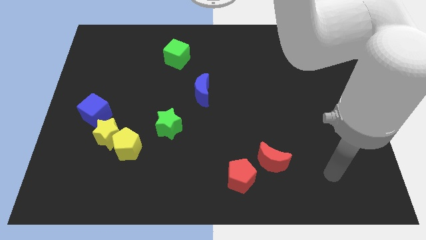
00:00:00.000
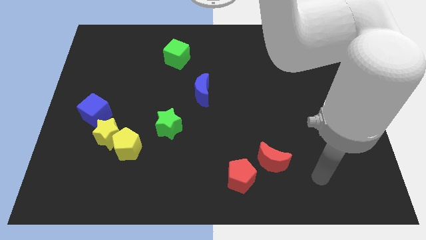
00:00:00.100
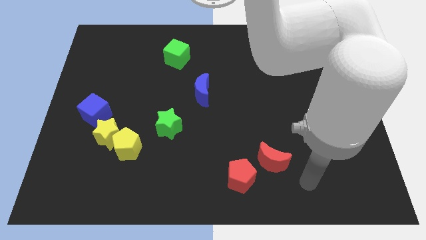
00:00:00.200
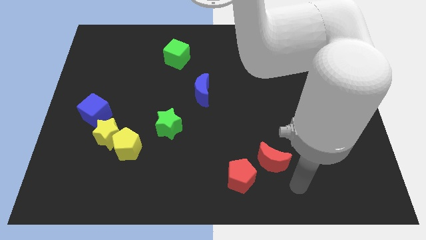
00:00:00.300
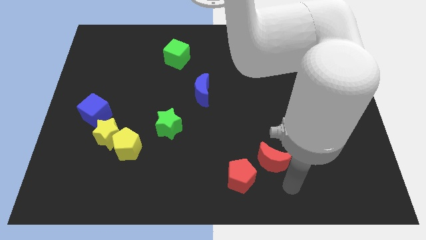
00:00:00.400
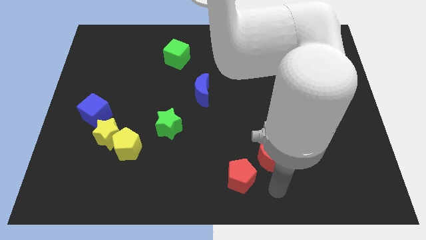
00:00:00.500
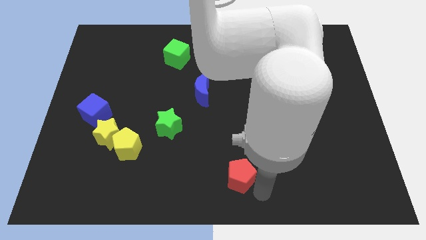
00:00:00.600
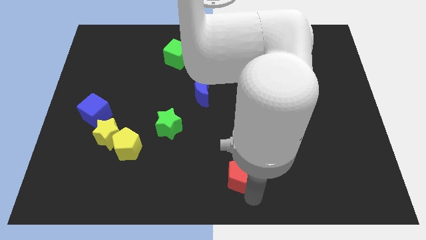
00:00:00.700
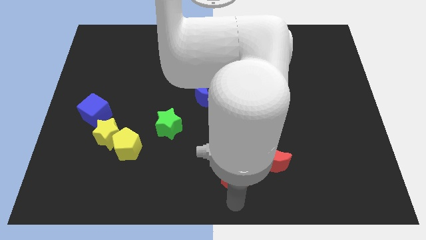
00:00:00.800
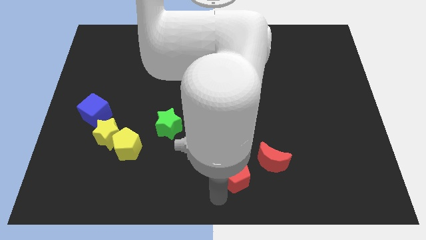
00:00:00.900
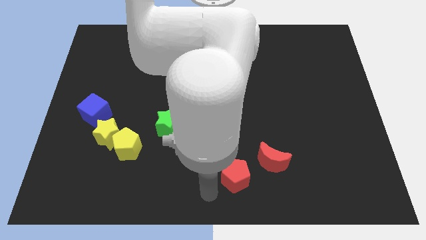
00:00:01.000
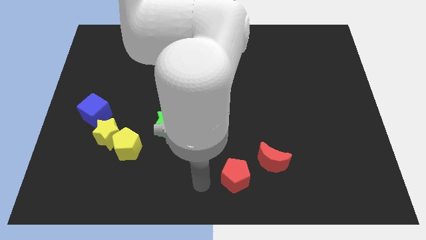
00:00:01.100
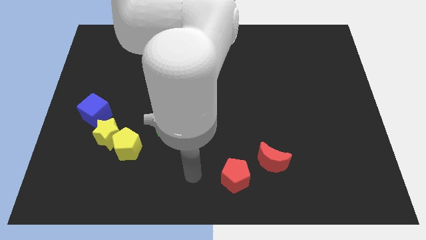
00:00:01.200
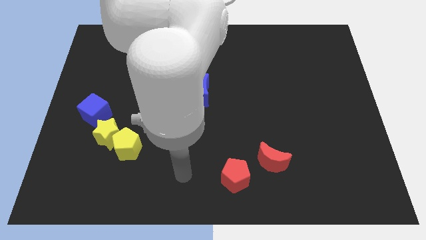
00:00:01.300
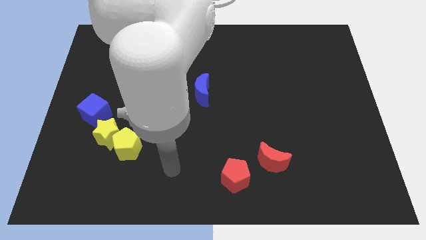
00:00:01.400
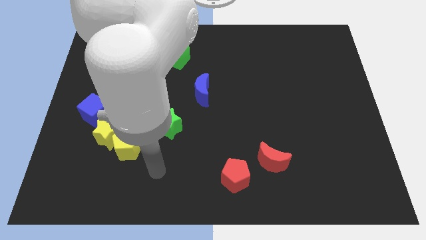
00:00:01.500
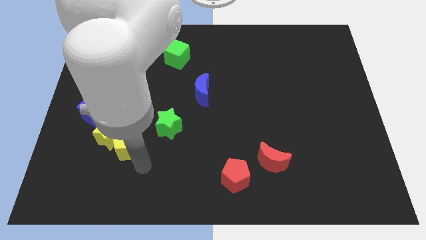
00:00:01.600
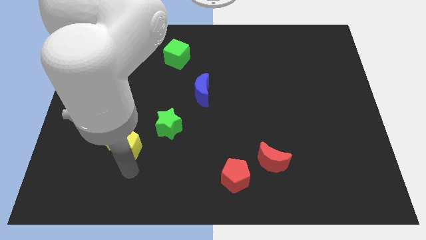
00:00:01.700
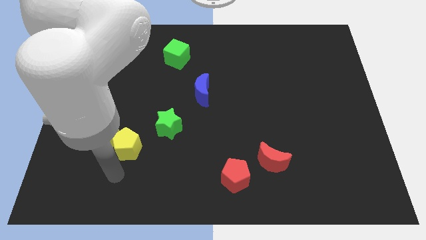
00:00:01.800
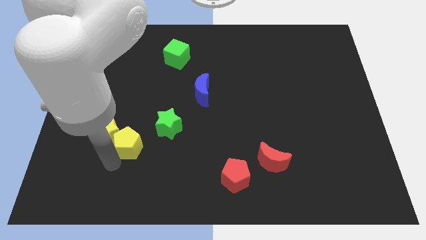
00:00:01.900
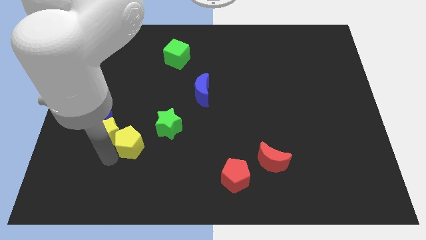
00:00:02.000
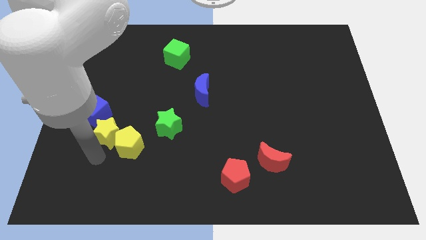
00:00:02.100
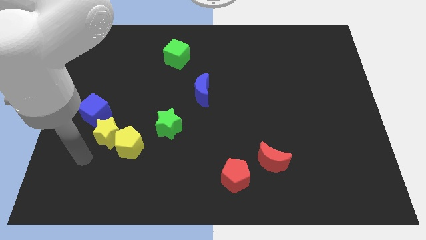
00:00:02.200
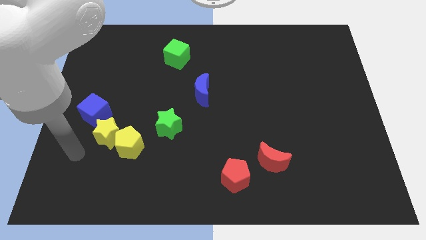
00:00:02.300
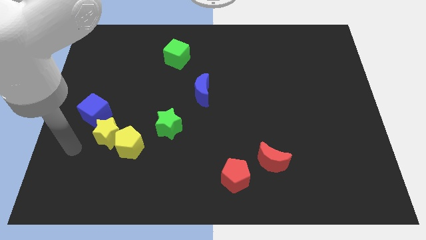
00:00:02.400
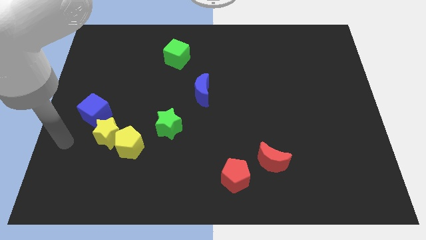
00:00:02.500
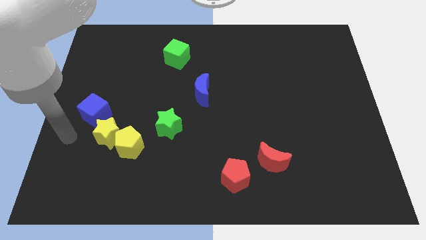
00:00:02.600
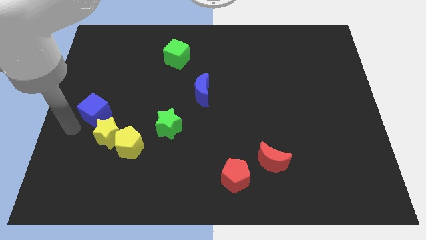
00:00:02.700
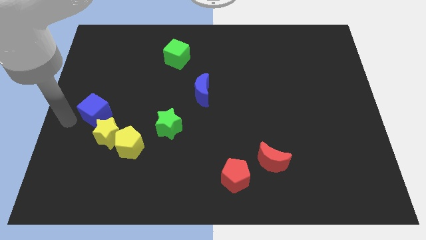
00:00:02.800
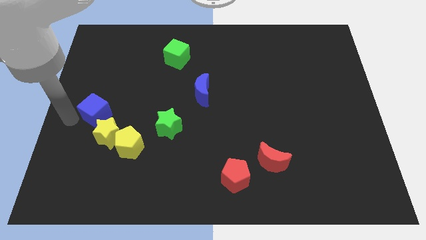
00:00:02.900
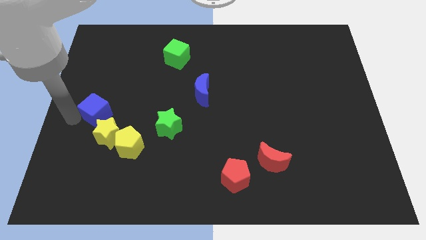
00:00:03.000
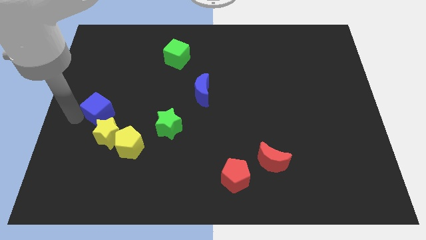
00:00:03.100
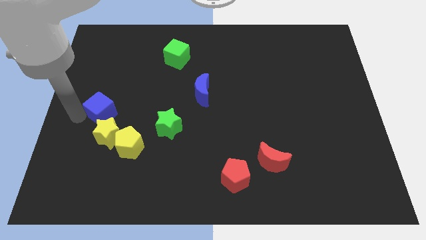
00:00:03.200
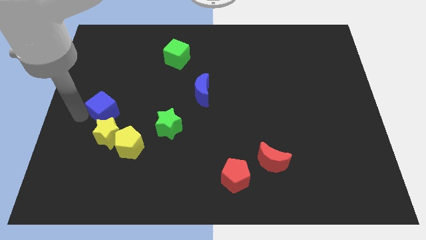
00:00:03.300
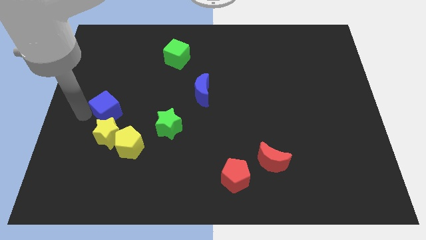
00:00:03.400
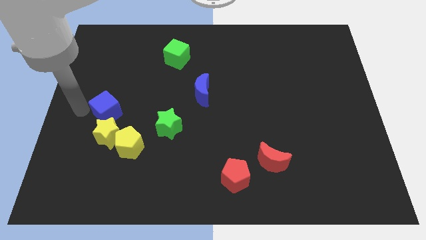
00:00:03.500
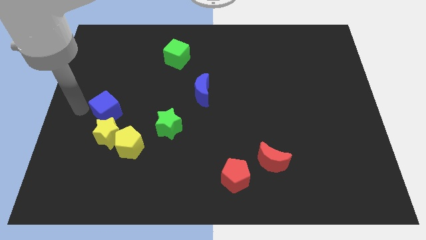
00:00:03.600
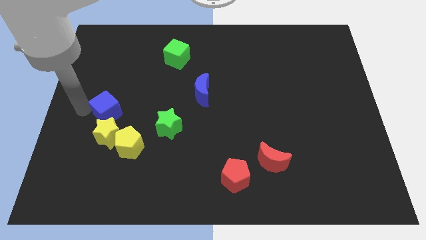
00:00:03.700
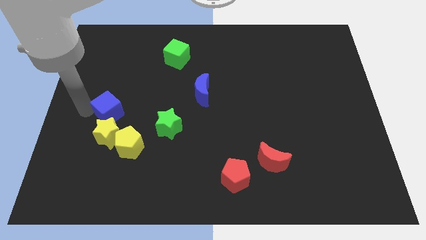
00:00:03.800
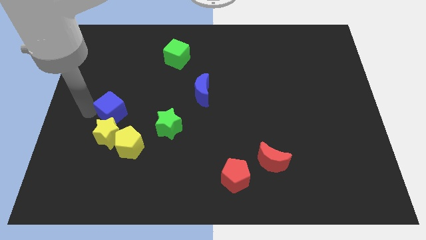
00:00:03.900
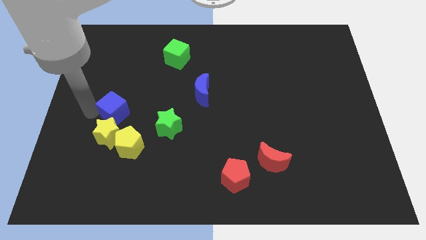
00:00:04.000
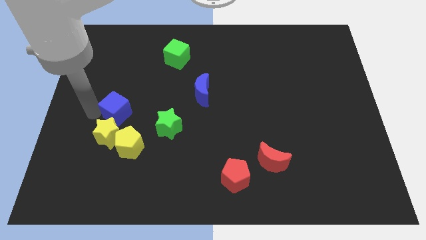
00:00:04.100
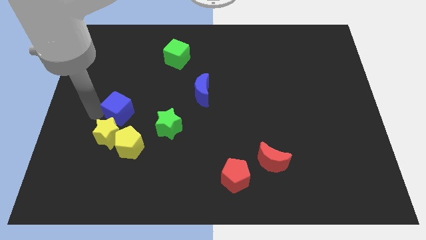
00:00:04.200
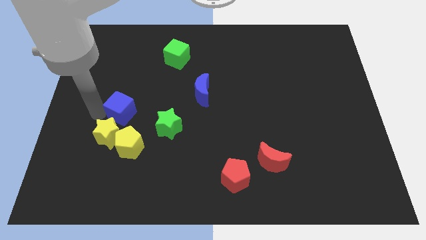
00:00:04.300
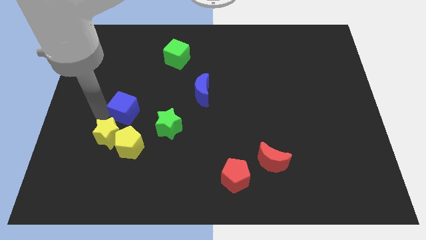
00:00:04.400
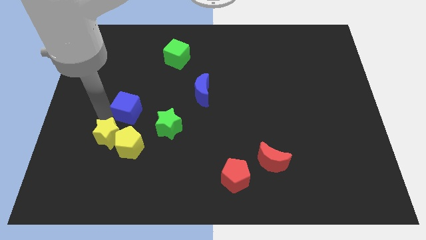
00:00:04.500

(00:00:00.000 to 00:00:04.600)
slightly slide the blue cube right

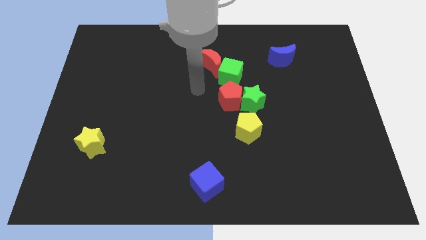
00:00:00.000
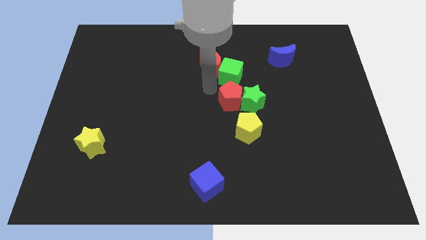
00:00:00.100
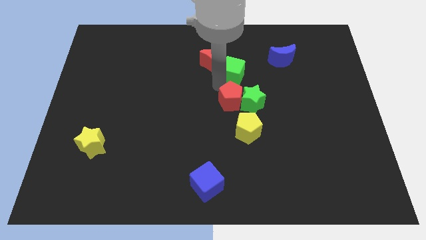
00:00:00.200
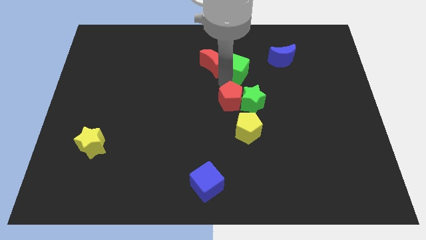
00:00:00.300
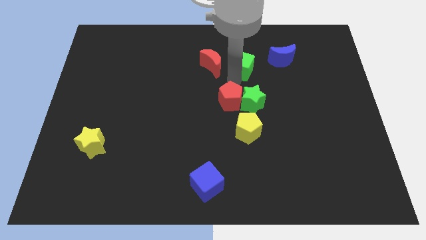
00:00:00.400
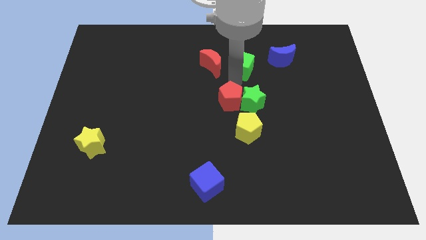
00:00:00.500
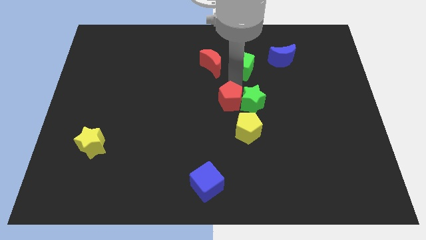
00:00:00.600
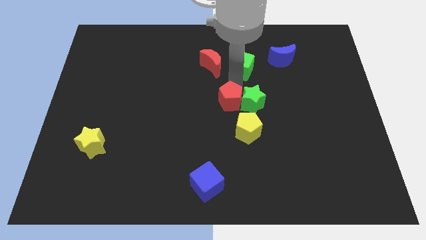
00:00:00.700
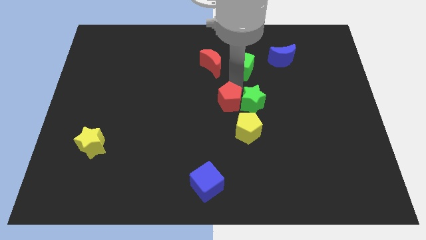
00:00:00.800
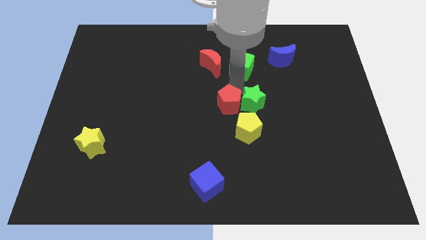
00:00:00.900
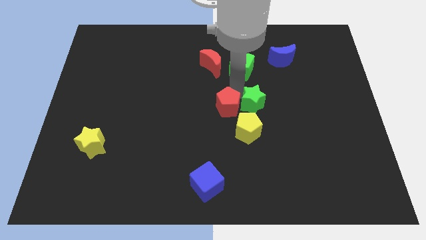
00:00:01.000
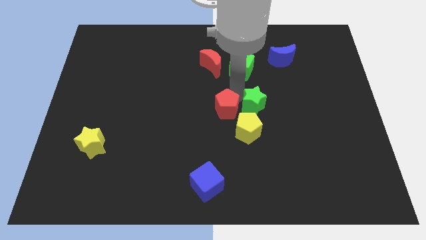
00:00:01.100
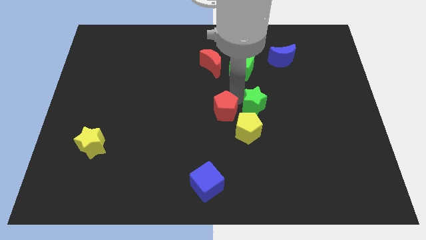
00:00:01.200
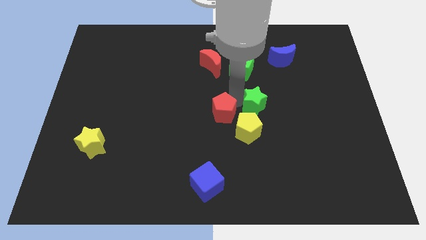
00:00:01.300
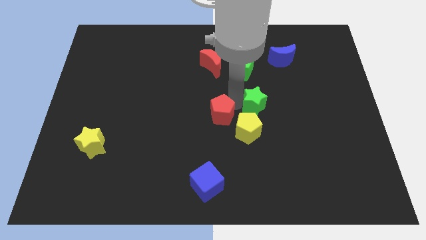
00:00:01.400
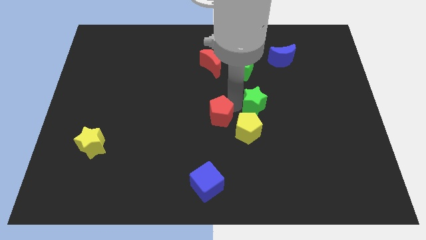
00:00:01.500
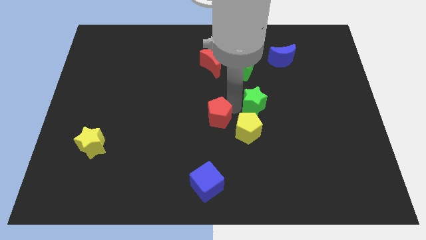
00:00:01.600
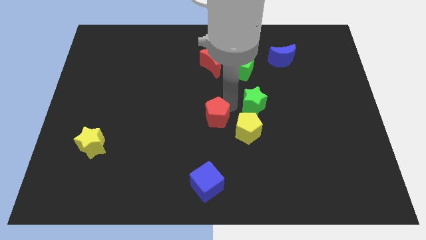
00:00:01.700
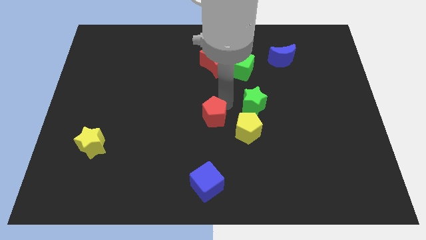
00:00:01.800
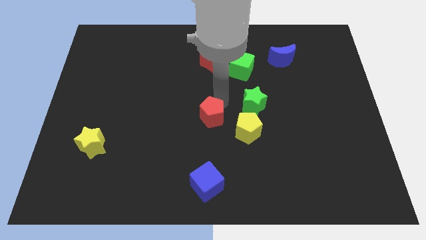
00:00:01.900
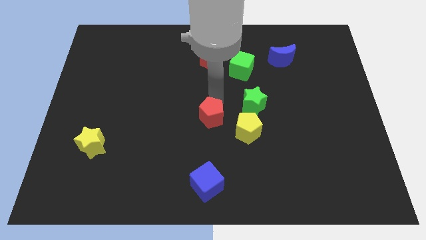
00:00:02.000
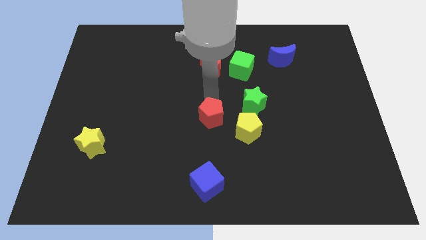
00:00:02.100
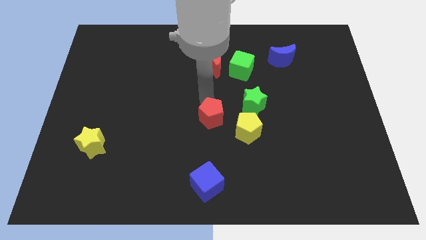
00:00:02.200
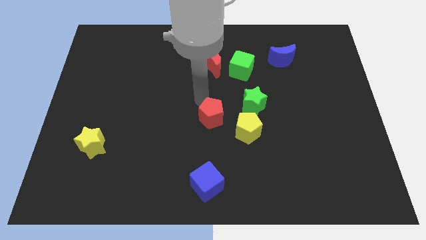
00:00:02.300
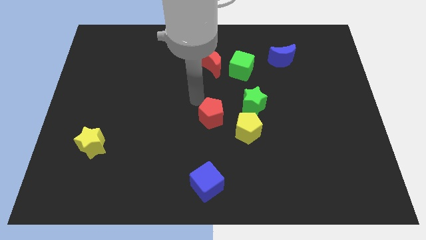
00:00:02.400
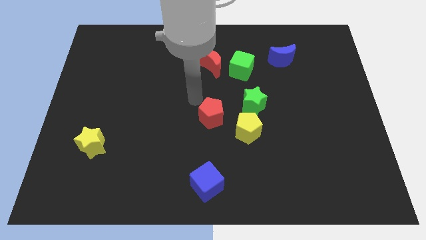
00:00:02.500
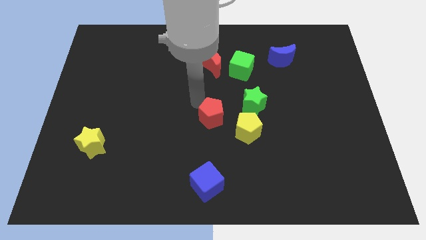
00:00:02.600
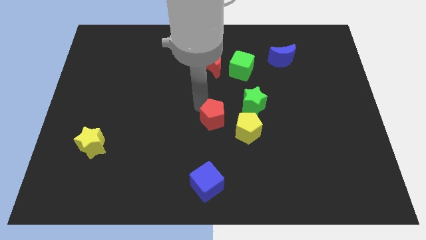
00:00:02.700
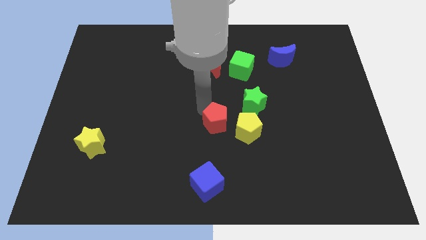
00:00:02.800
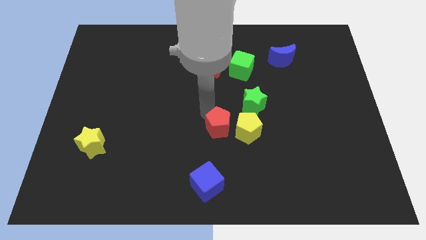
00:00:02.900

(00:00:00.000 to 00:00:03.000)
slightly push the red pentagon downwards

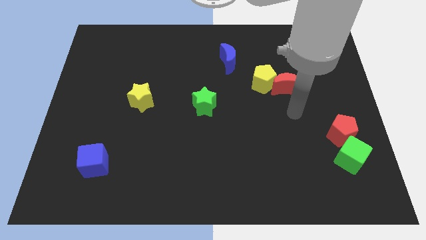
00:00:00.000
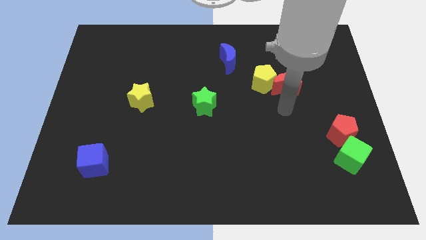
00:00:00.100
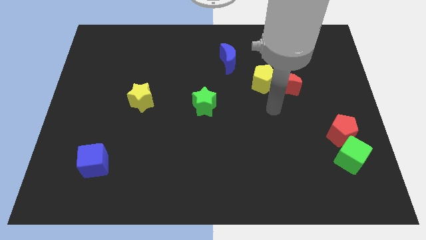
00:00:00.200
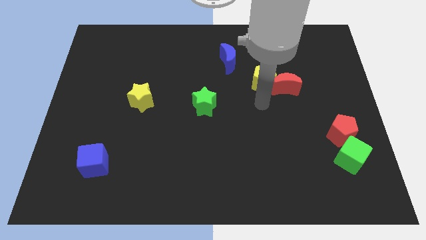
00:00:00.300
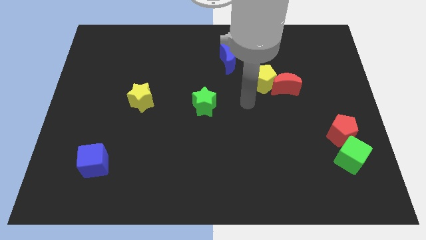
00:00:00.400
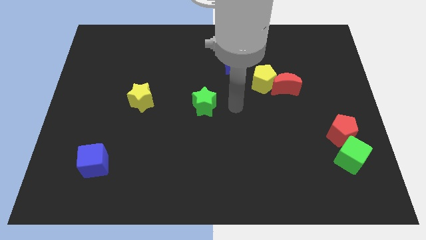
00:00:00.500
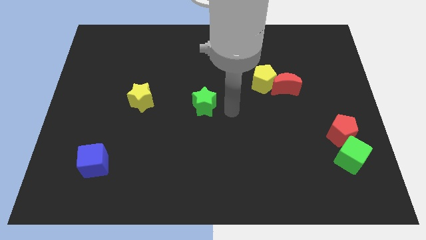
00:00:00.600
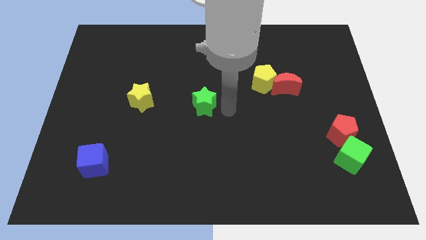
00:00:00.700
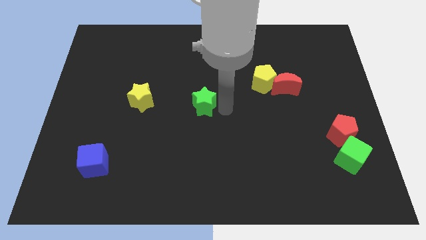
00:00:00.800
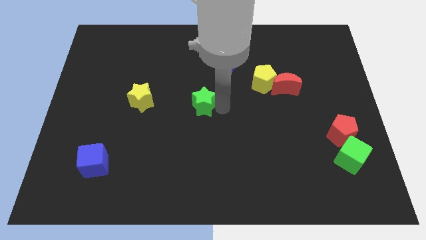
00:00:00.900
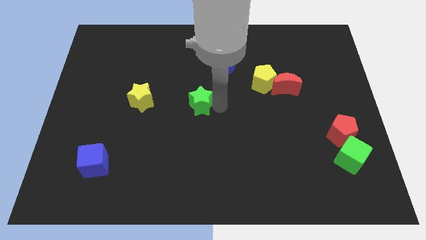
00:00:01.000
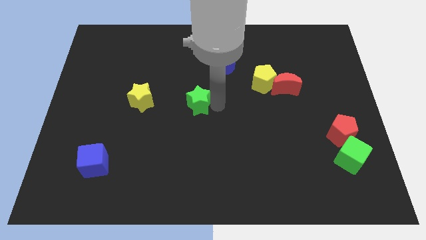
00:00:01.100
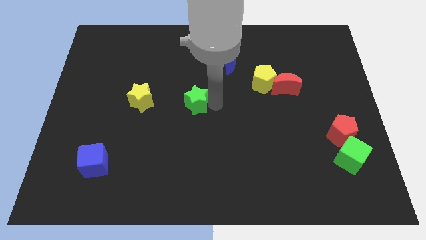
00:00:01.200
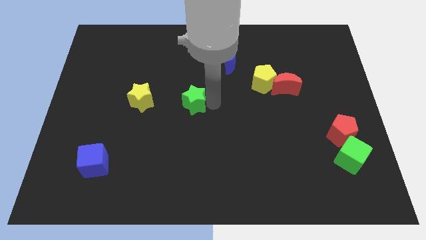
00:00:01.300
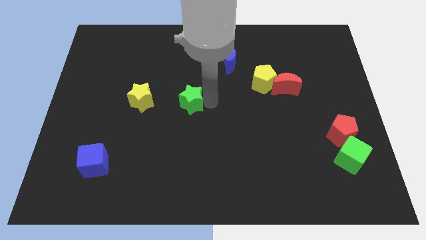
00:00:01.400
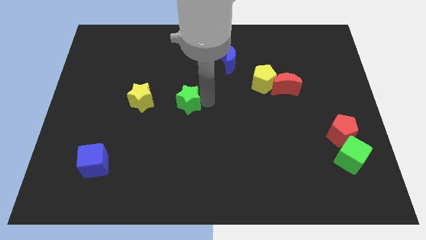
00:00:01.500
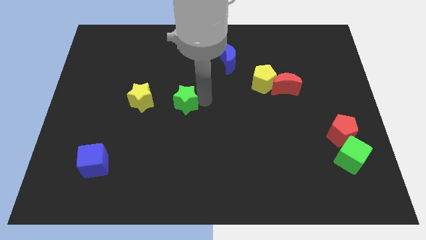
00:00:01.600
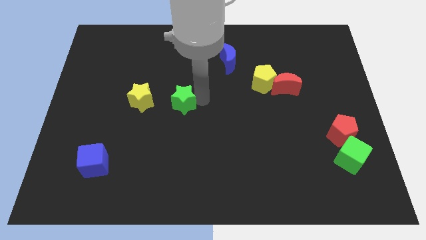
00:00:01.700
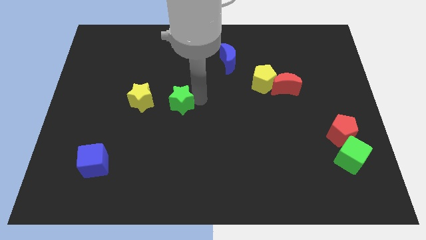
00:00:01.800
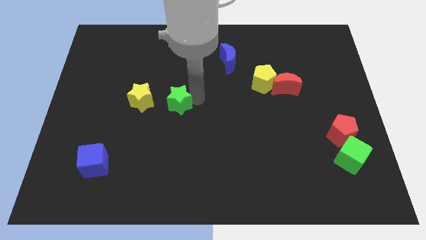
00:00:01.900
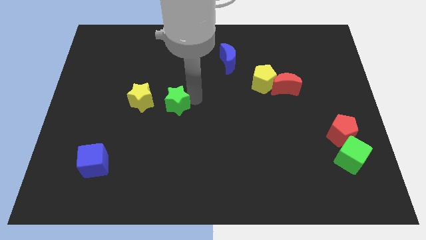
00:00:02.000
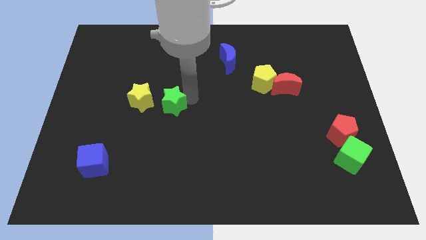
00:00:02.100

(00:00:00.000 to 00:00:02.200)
slightly slide the green star left
